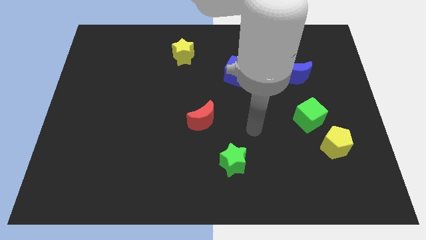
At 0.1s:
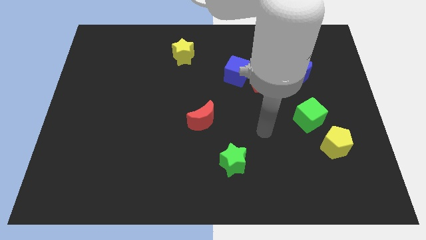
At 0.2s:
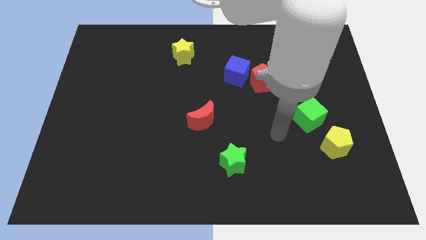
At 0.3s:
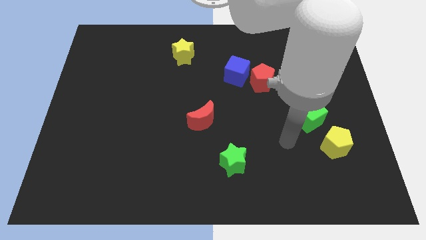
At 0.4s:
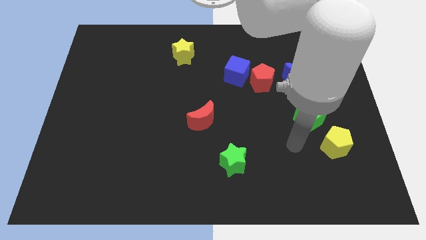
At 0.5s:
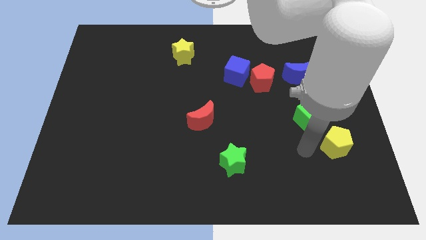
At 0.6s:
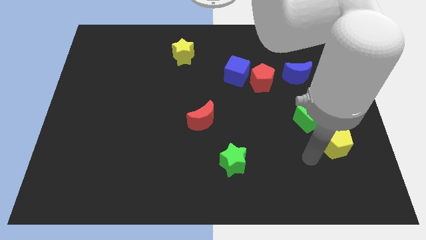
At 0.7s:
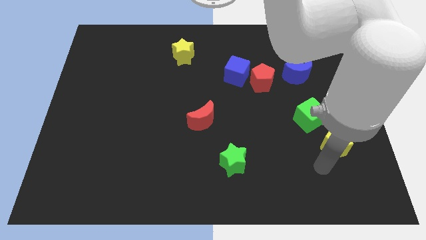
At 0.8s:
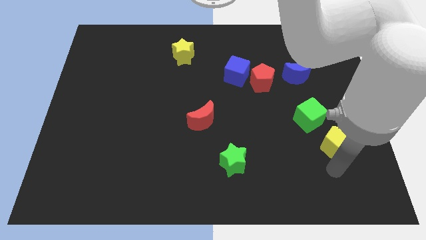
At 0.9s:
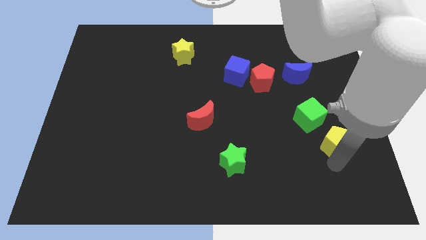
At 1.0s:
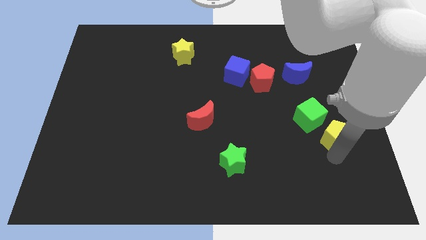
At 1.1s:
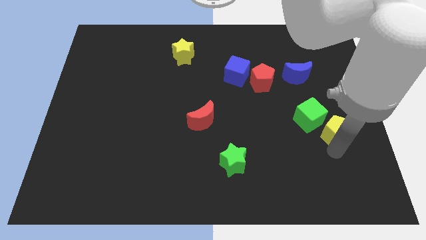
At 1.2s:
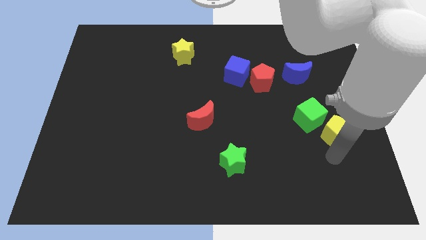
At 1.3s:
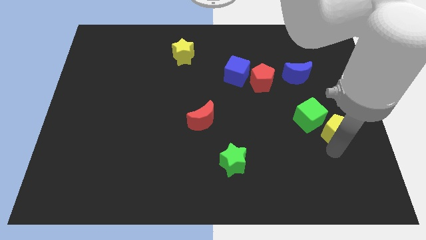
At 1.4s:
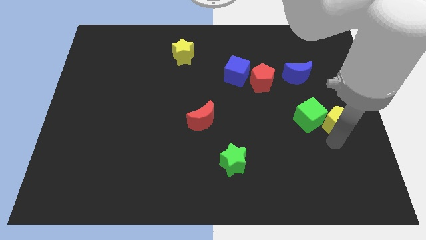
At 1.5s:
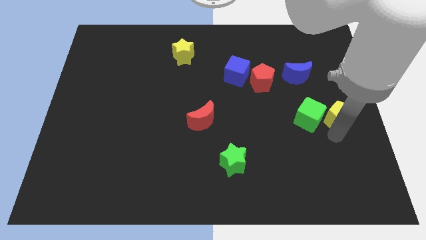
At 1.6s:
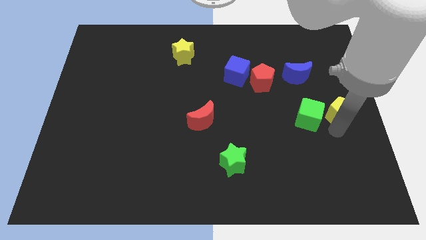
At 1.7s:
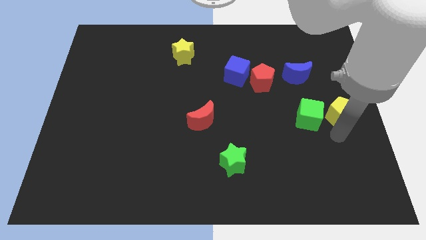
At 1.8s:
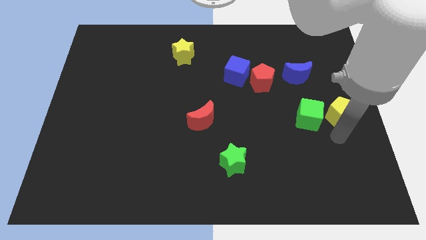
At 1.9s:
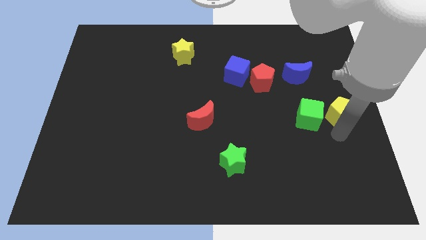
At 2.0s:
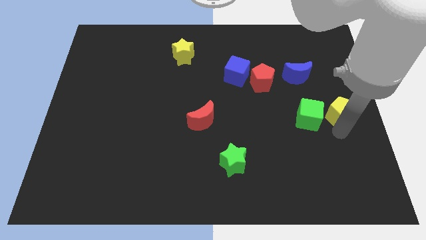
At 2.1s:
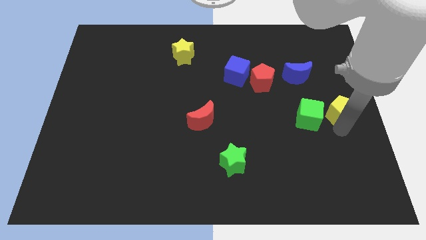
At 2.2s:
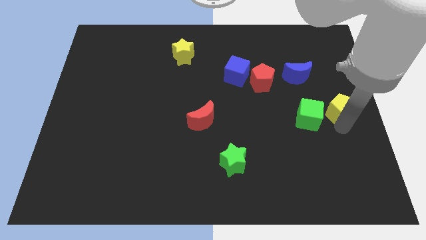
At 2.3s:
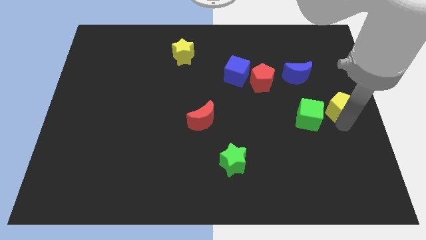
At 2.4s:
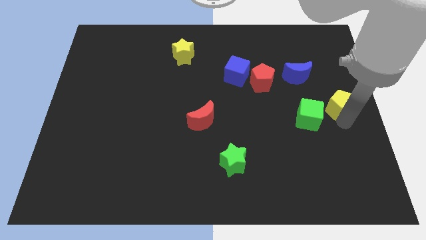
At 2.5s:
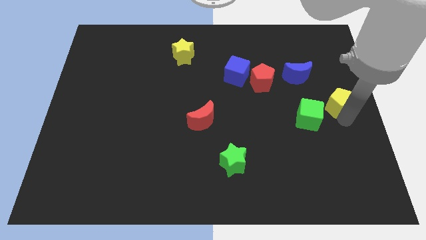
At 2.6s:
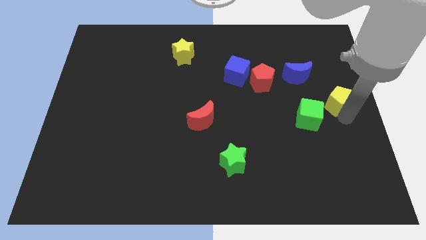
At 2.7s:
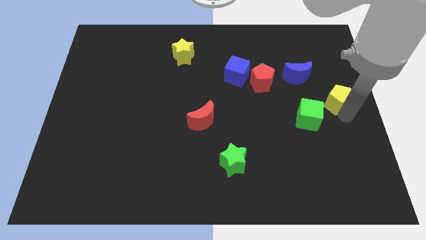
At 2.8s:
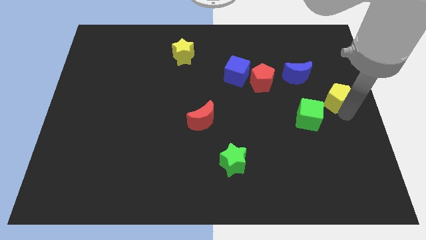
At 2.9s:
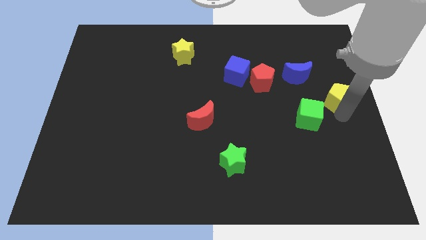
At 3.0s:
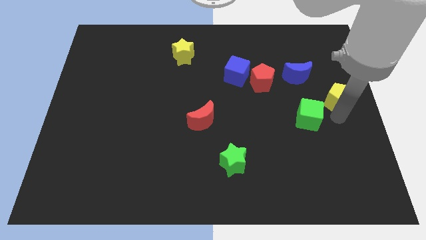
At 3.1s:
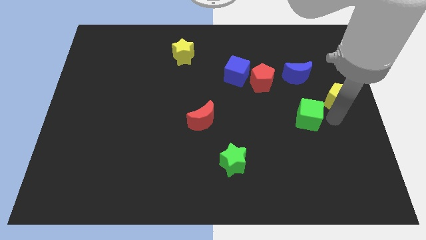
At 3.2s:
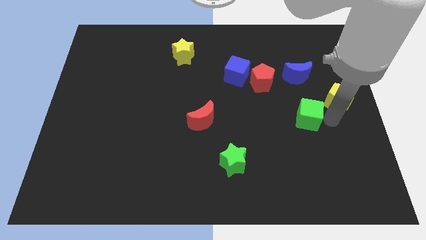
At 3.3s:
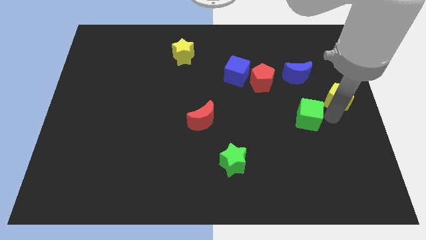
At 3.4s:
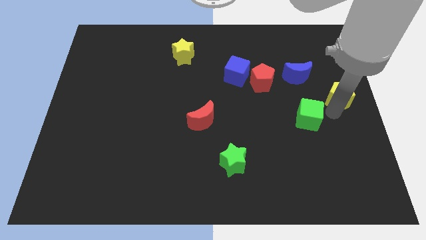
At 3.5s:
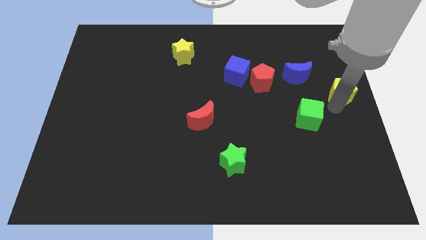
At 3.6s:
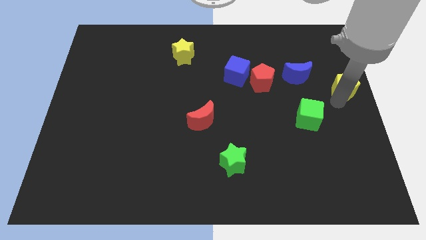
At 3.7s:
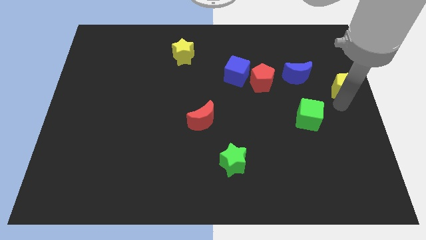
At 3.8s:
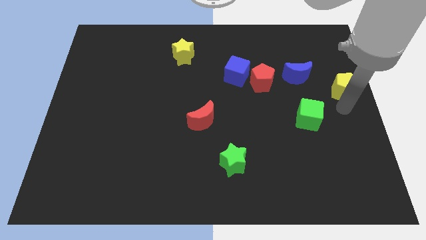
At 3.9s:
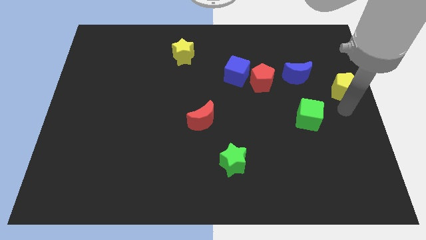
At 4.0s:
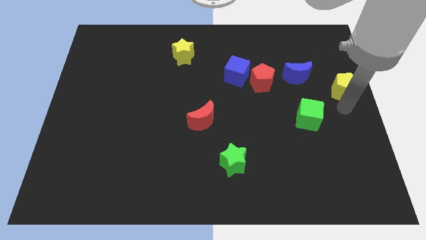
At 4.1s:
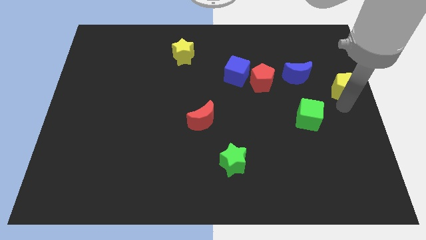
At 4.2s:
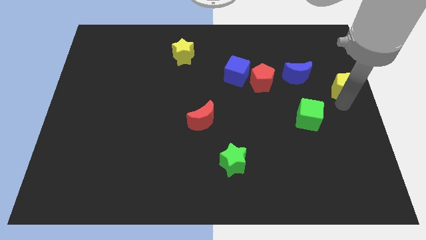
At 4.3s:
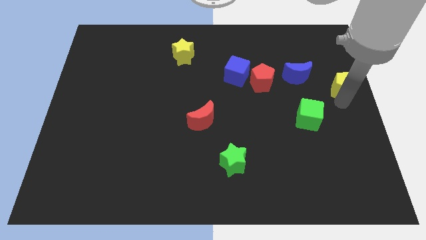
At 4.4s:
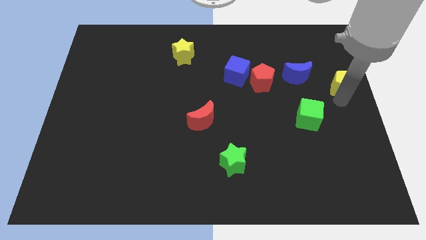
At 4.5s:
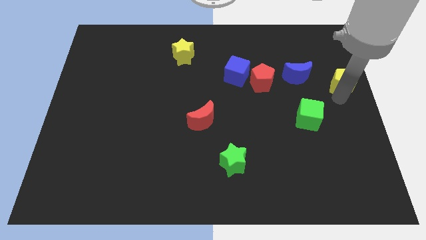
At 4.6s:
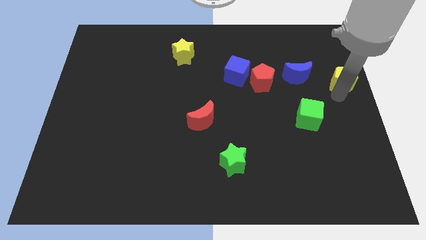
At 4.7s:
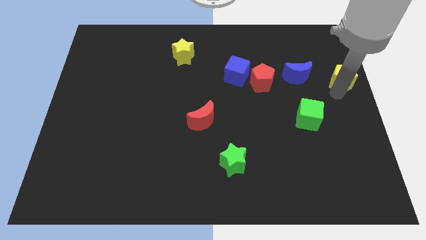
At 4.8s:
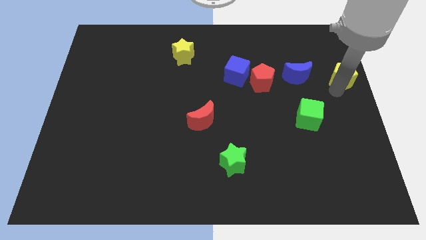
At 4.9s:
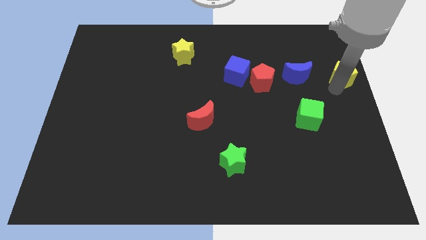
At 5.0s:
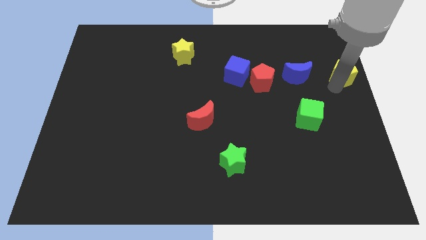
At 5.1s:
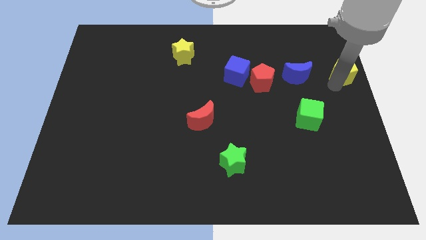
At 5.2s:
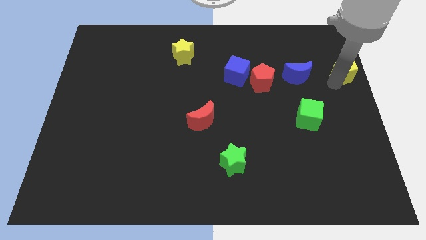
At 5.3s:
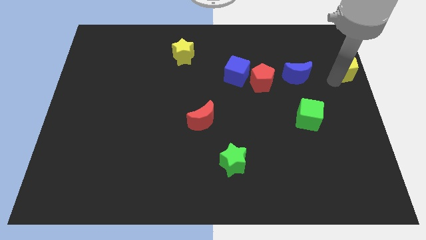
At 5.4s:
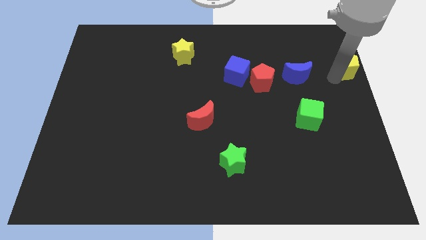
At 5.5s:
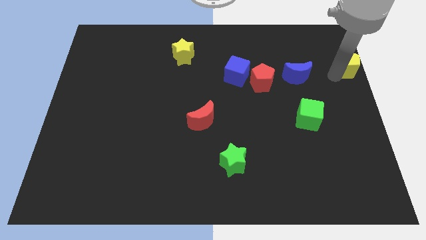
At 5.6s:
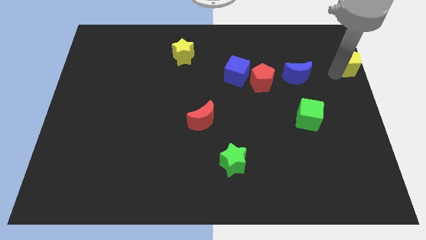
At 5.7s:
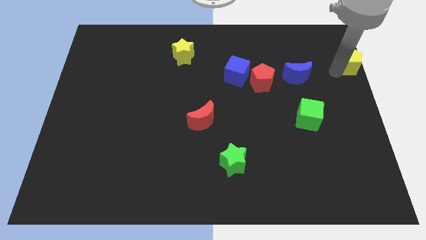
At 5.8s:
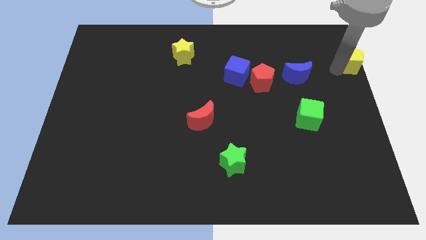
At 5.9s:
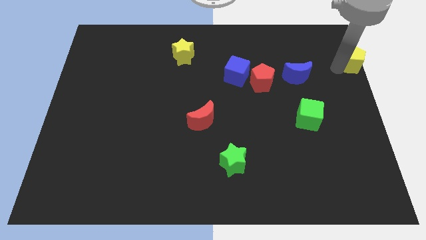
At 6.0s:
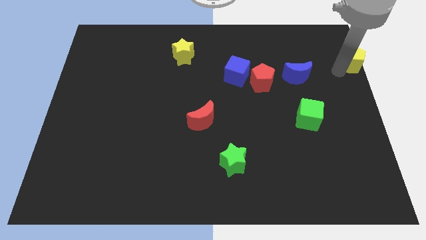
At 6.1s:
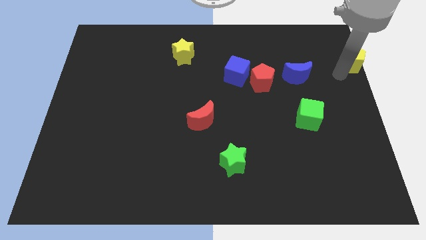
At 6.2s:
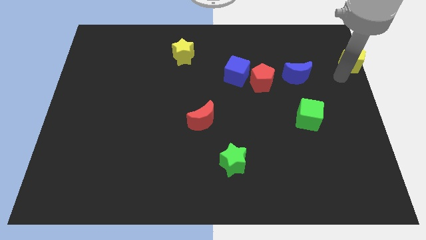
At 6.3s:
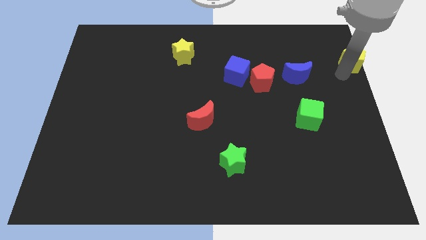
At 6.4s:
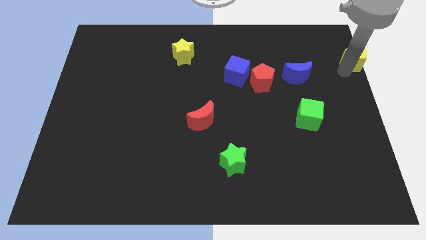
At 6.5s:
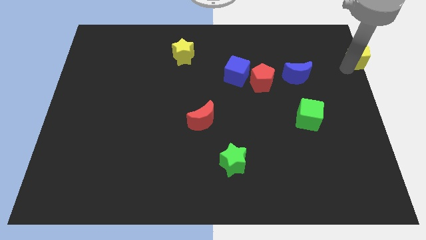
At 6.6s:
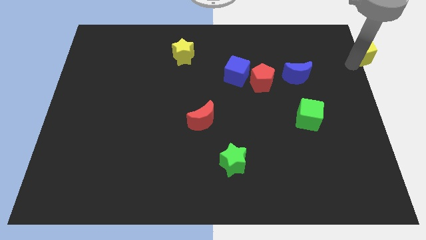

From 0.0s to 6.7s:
slide the yellow pentagon to the top right of the board
